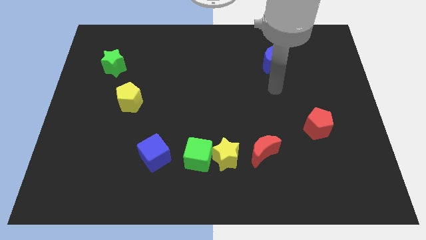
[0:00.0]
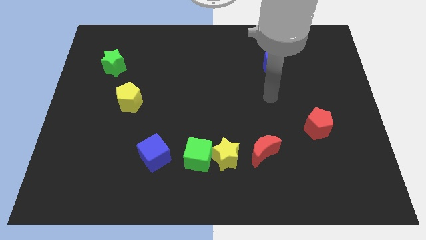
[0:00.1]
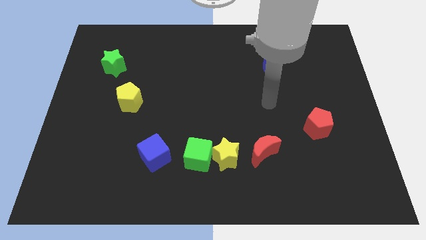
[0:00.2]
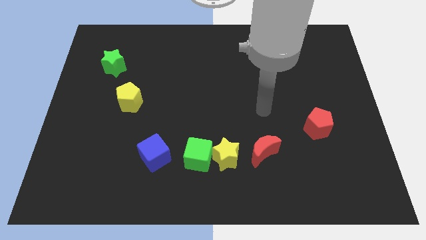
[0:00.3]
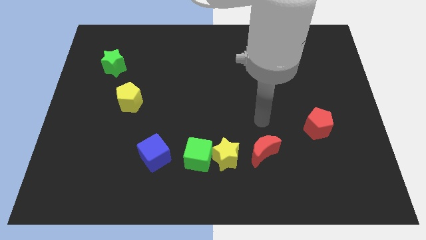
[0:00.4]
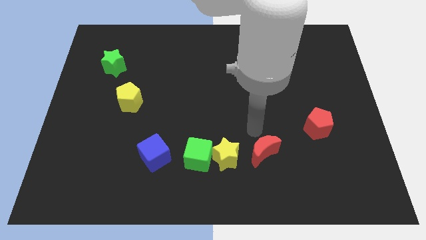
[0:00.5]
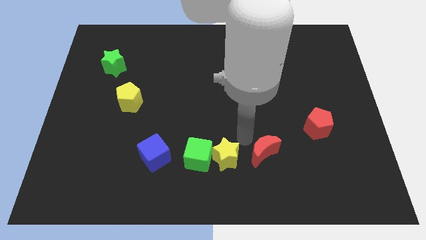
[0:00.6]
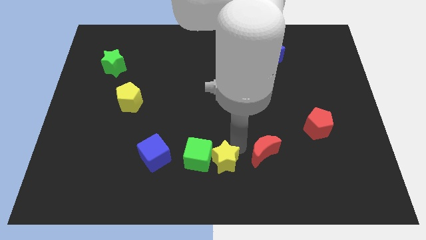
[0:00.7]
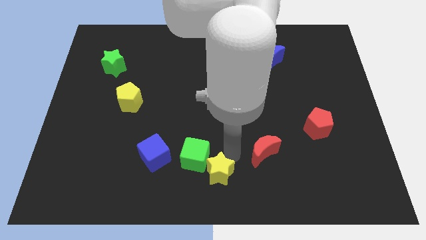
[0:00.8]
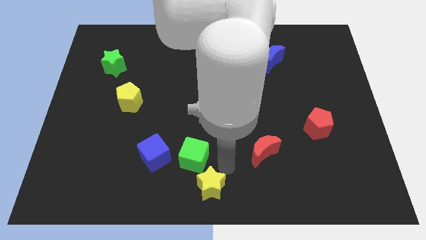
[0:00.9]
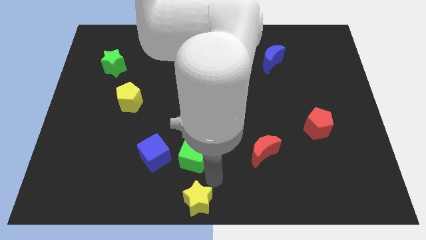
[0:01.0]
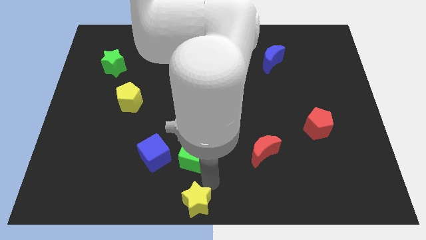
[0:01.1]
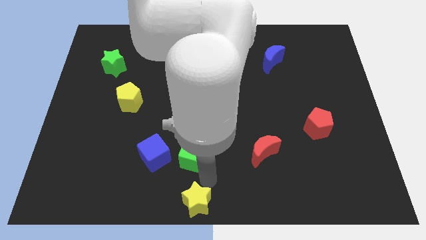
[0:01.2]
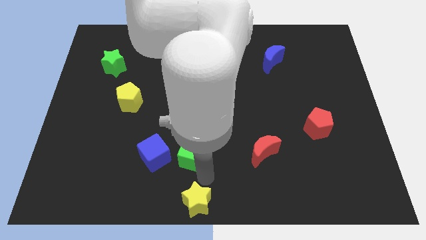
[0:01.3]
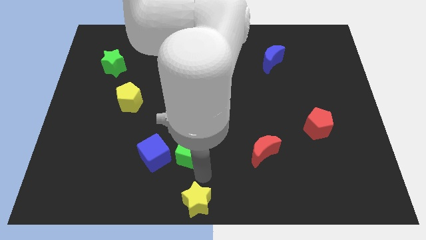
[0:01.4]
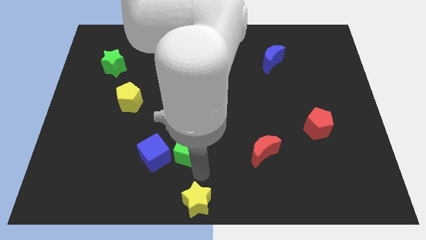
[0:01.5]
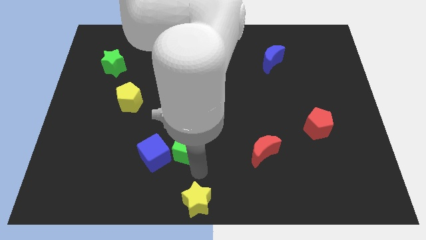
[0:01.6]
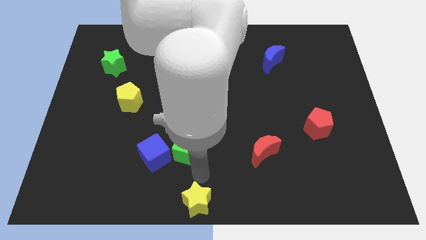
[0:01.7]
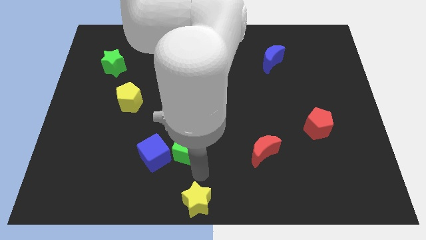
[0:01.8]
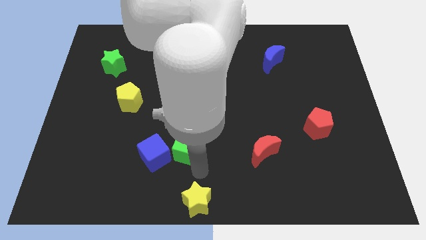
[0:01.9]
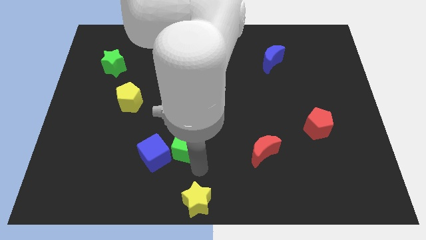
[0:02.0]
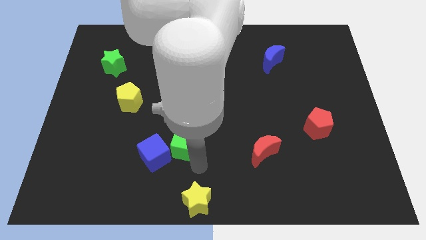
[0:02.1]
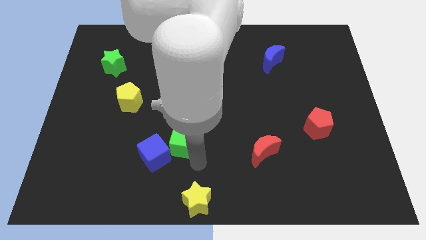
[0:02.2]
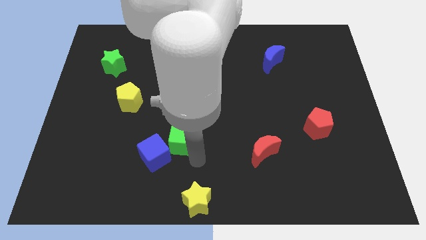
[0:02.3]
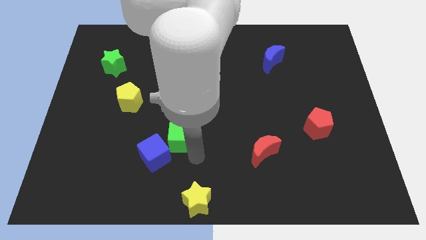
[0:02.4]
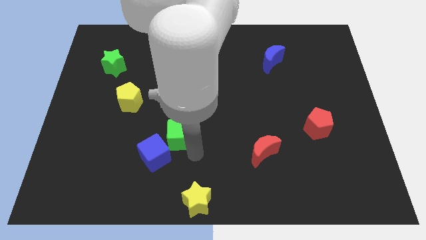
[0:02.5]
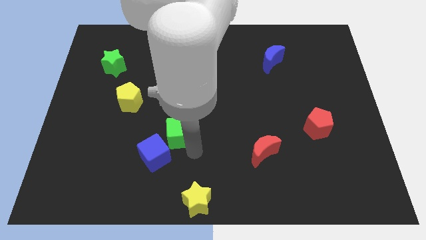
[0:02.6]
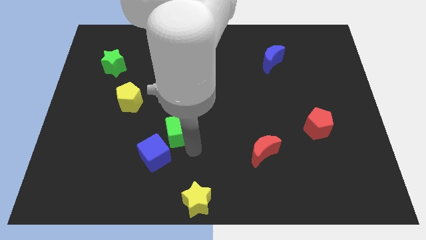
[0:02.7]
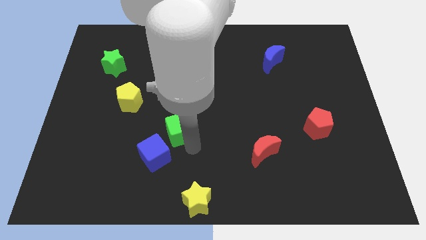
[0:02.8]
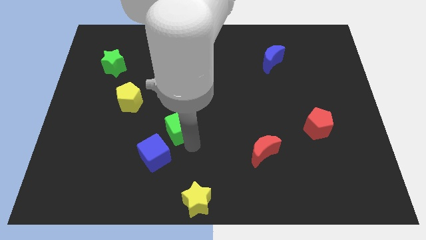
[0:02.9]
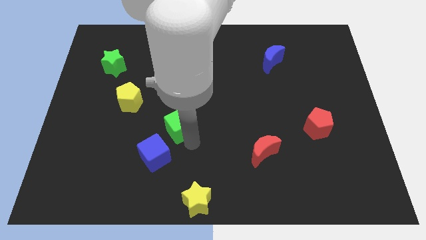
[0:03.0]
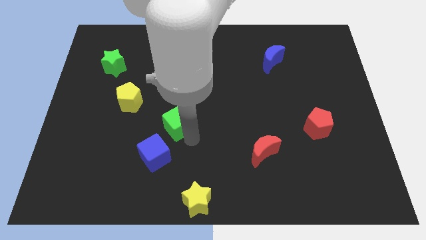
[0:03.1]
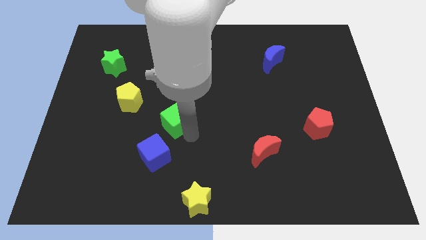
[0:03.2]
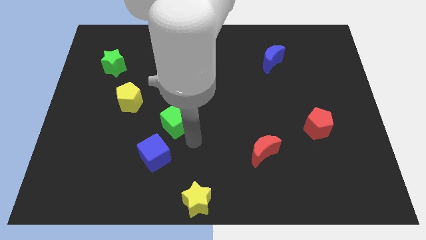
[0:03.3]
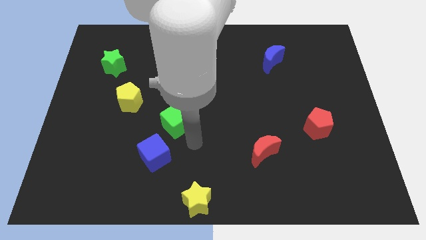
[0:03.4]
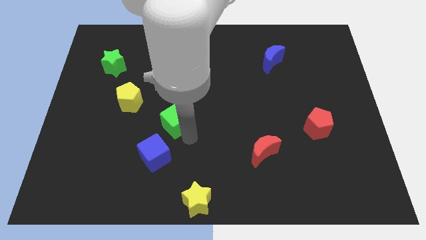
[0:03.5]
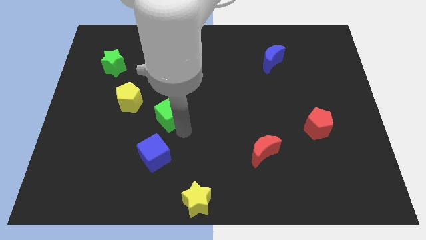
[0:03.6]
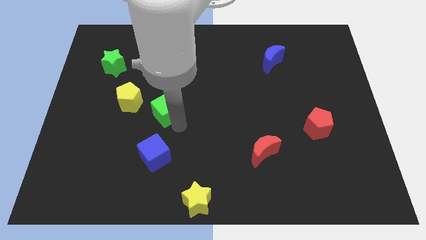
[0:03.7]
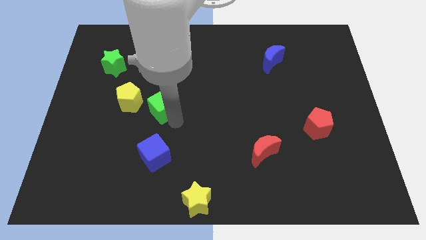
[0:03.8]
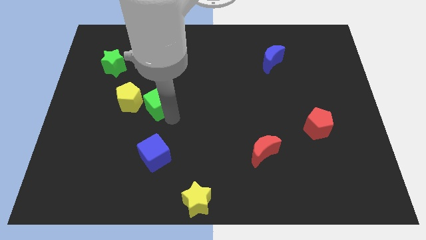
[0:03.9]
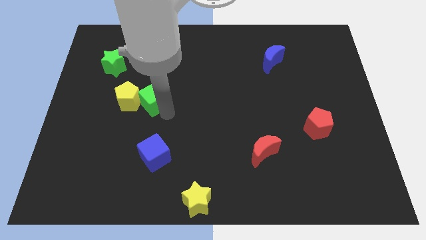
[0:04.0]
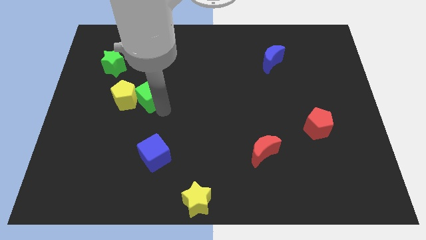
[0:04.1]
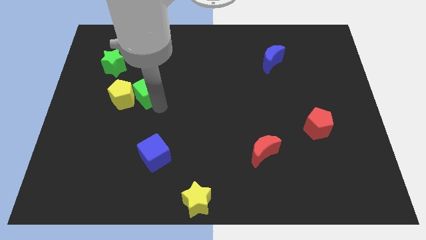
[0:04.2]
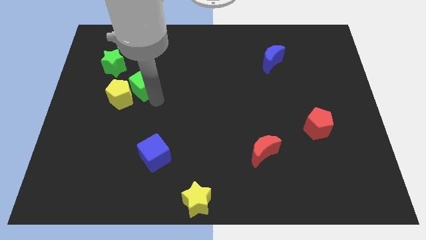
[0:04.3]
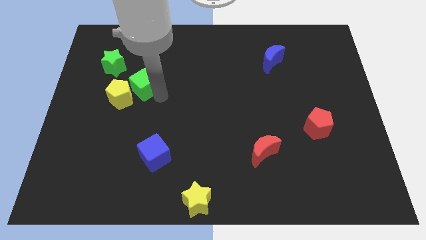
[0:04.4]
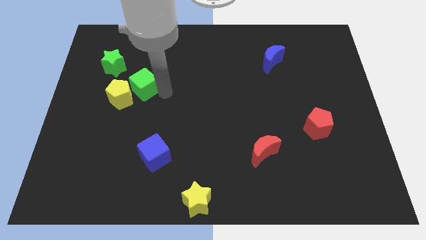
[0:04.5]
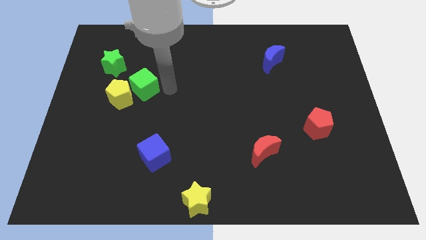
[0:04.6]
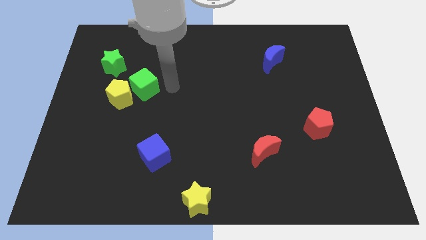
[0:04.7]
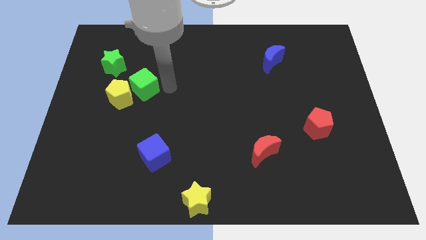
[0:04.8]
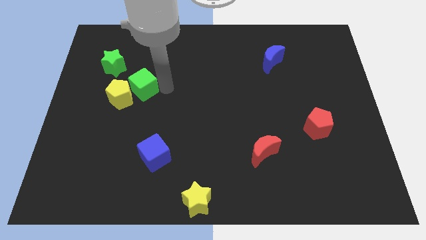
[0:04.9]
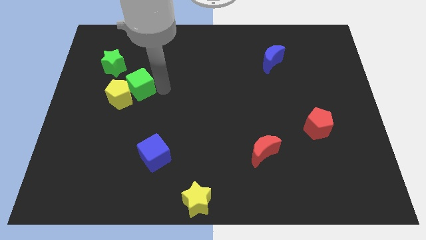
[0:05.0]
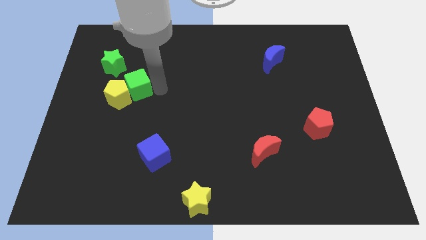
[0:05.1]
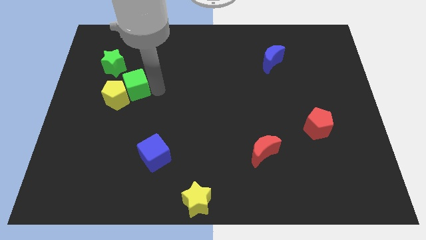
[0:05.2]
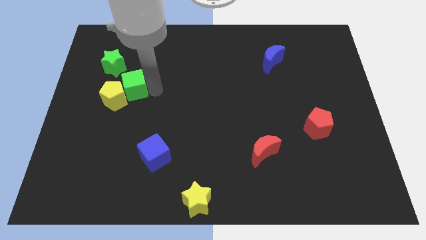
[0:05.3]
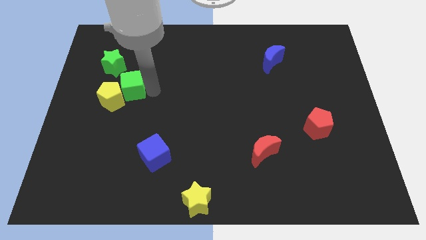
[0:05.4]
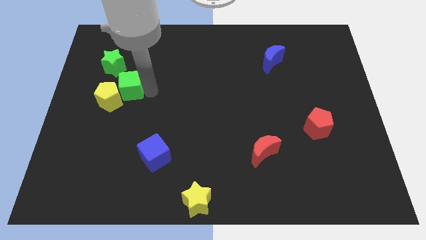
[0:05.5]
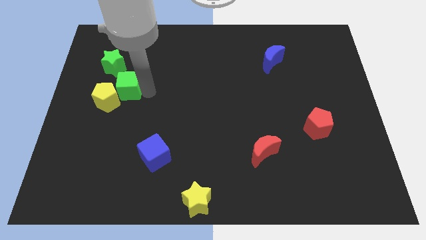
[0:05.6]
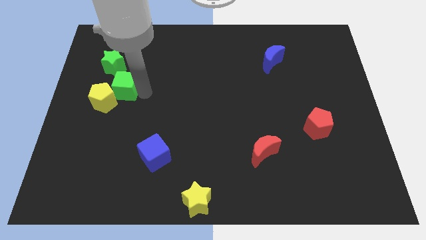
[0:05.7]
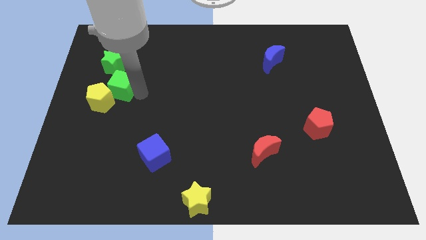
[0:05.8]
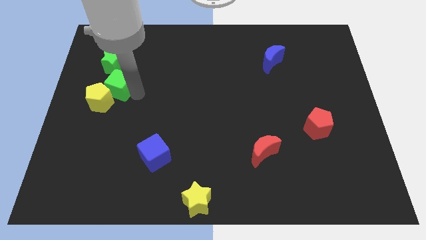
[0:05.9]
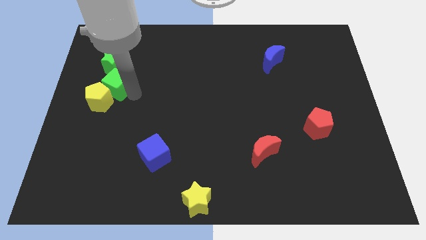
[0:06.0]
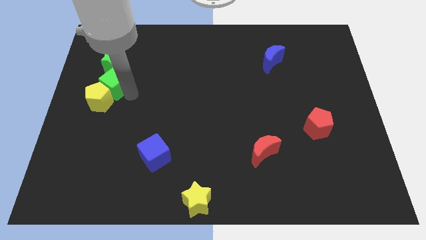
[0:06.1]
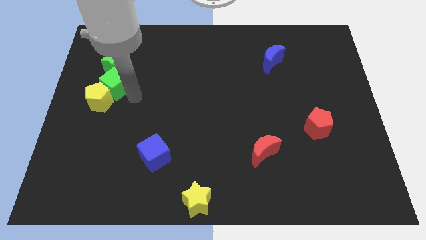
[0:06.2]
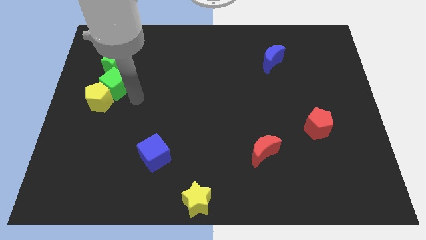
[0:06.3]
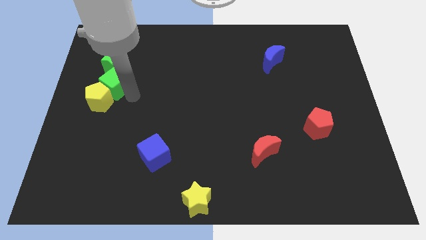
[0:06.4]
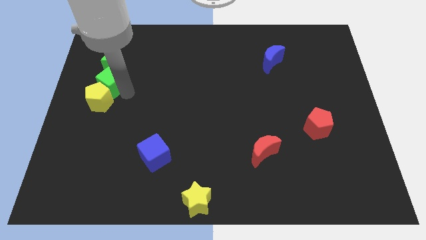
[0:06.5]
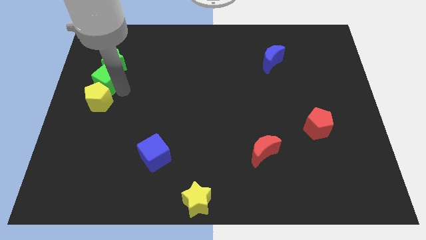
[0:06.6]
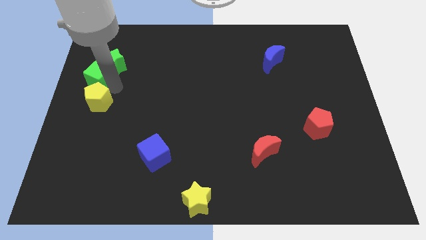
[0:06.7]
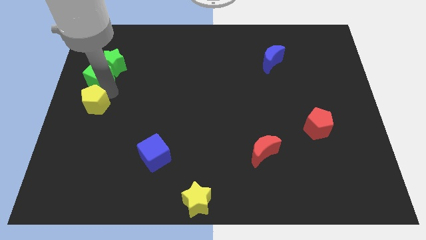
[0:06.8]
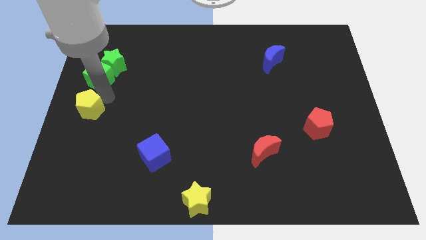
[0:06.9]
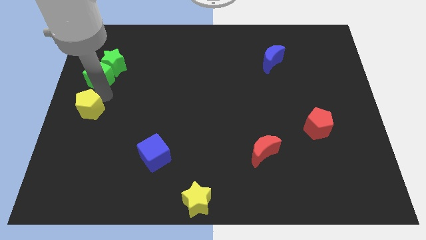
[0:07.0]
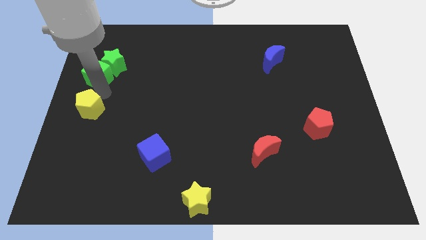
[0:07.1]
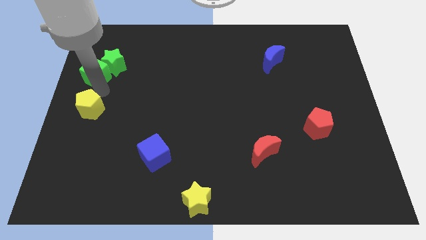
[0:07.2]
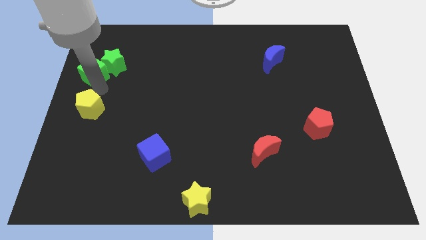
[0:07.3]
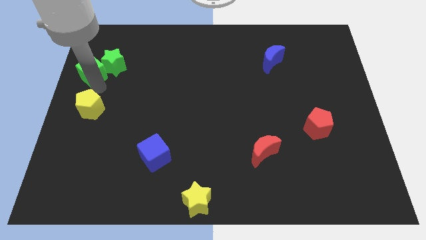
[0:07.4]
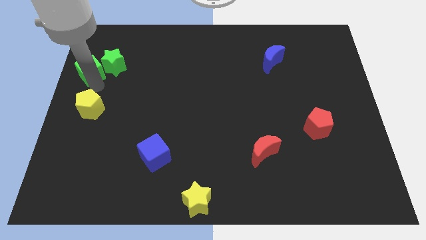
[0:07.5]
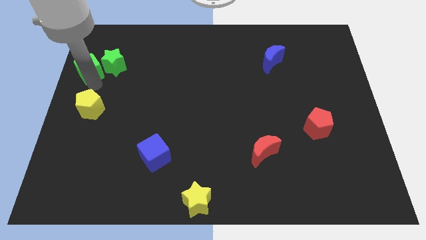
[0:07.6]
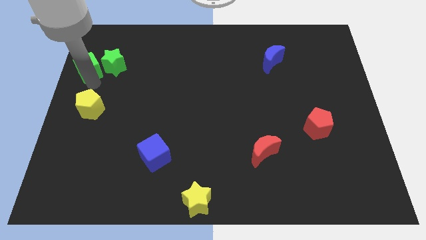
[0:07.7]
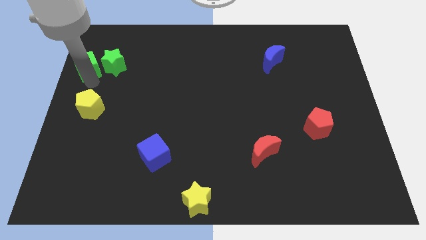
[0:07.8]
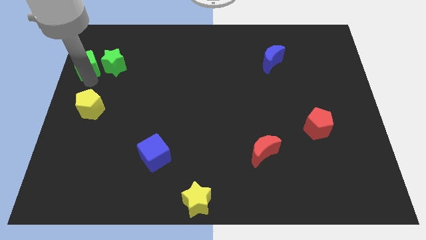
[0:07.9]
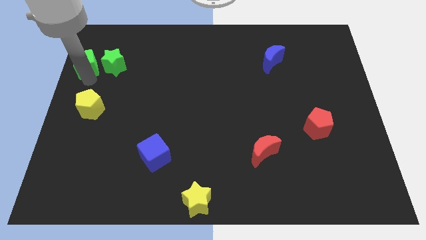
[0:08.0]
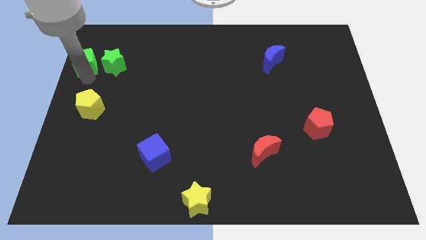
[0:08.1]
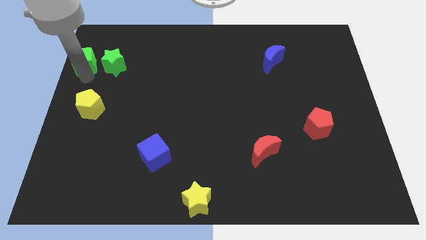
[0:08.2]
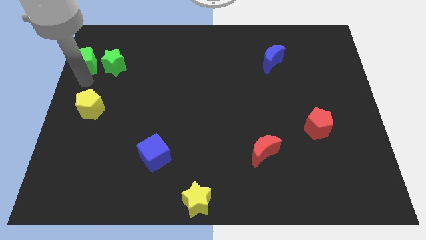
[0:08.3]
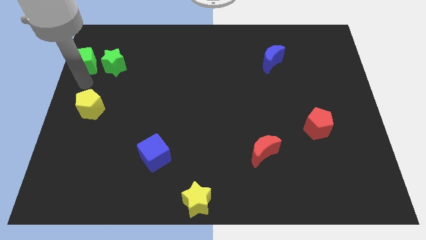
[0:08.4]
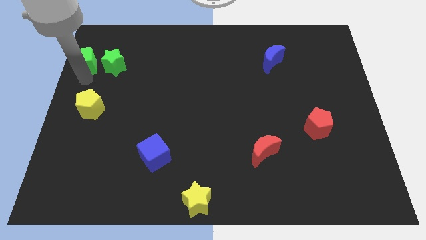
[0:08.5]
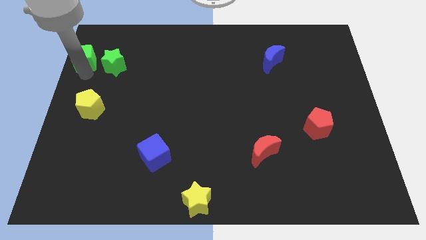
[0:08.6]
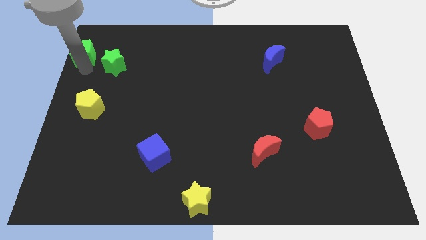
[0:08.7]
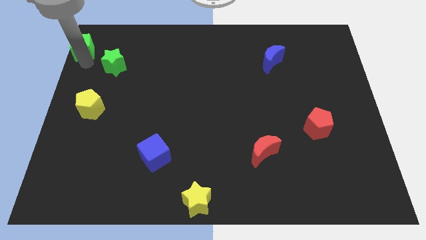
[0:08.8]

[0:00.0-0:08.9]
put the green cube to the top left
